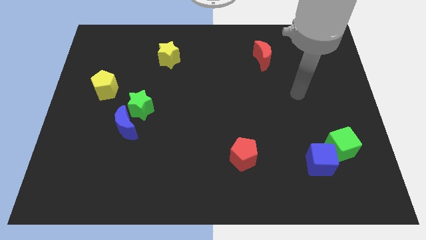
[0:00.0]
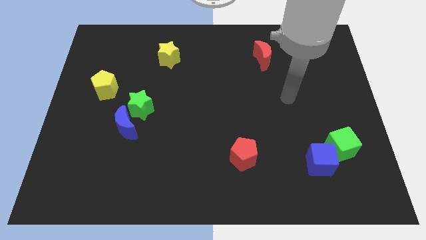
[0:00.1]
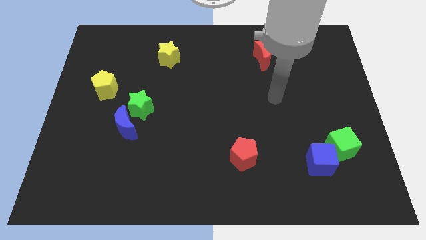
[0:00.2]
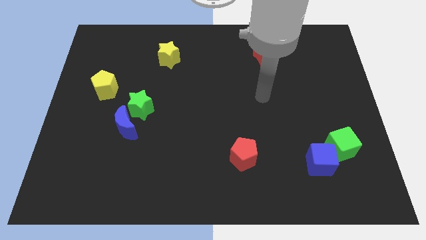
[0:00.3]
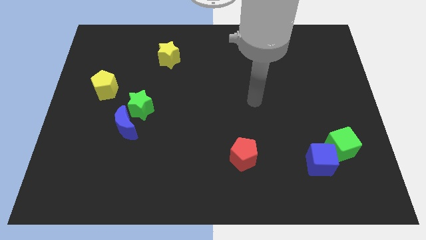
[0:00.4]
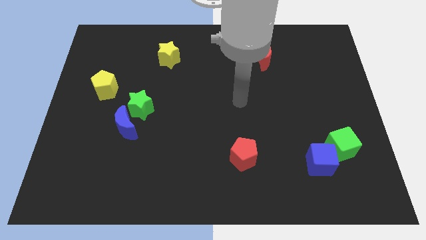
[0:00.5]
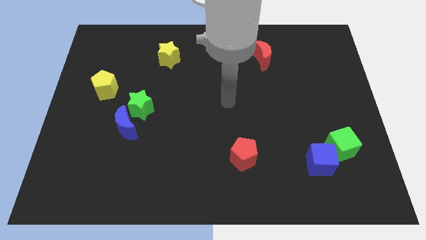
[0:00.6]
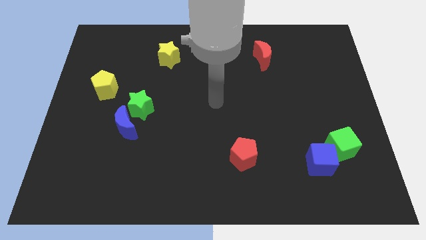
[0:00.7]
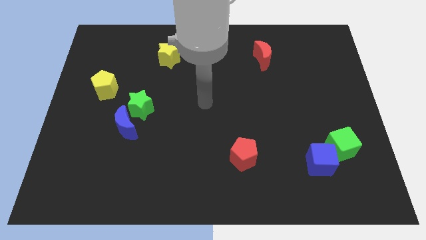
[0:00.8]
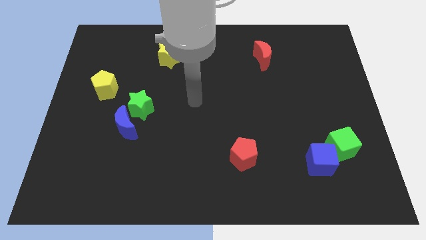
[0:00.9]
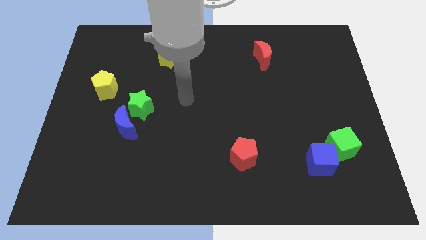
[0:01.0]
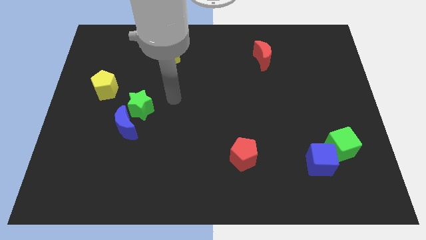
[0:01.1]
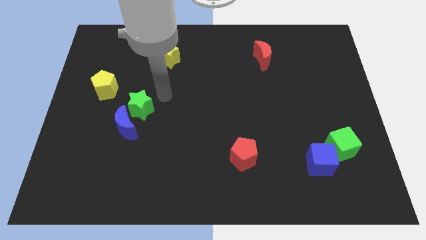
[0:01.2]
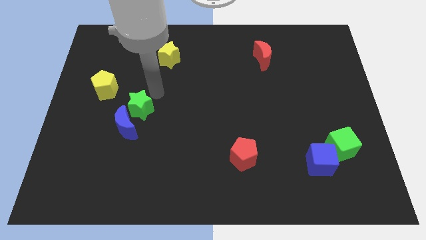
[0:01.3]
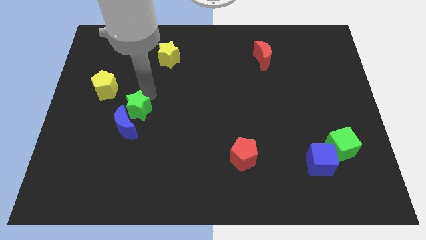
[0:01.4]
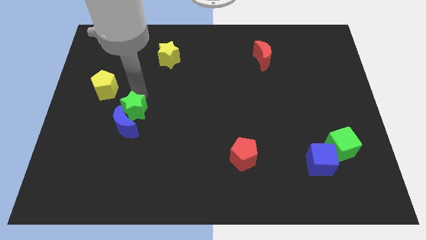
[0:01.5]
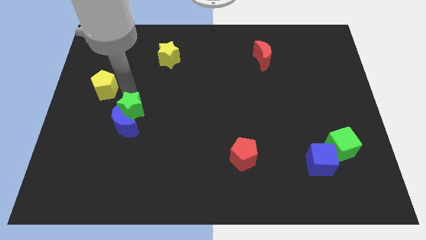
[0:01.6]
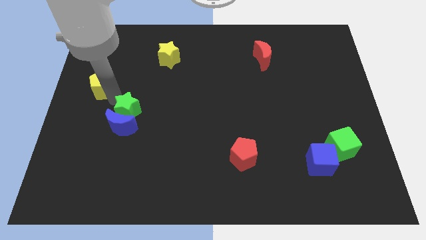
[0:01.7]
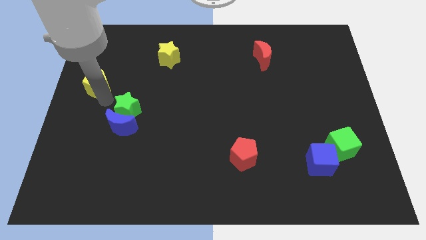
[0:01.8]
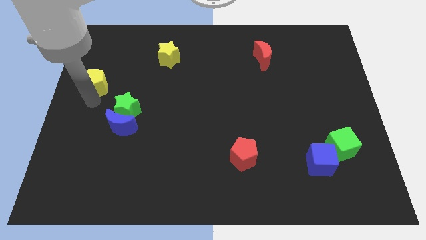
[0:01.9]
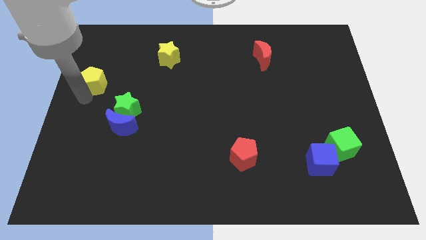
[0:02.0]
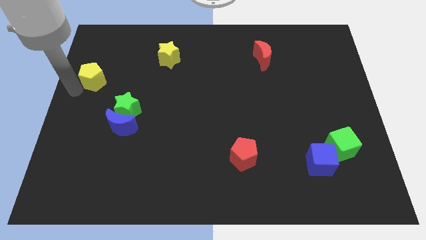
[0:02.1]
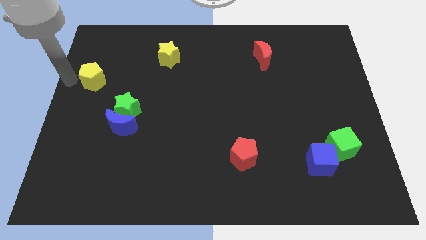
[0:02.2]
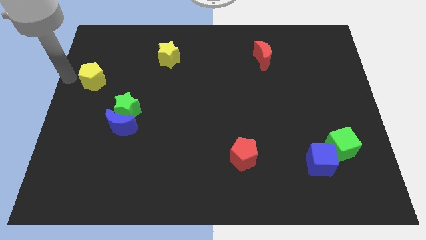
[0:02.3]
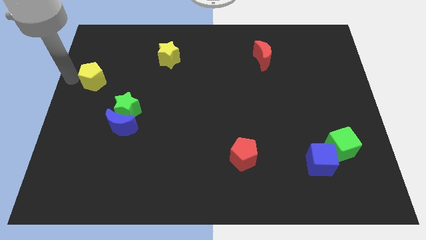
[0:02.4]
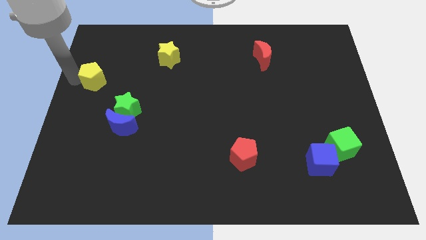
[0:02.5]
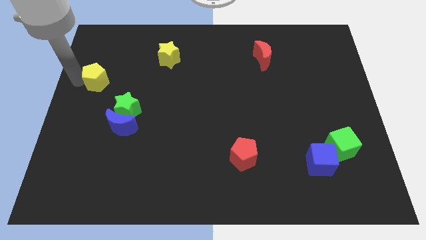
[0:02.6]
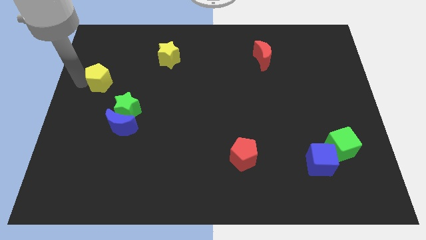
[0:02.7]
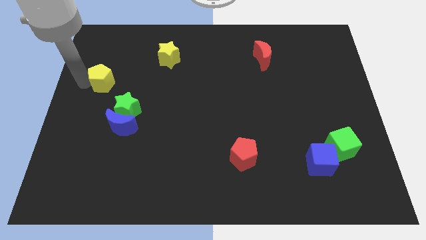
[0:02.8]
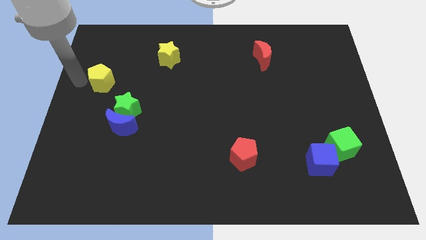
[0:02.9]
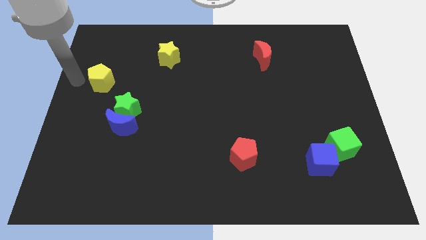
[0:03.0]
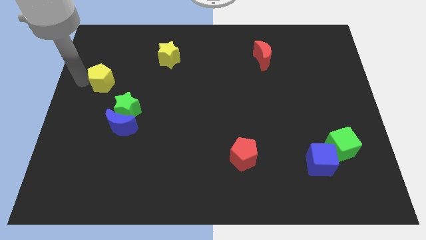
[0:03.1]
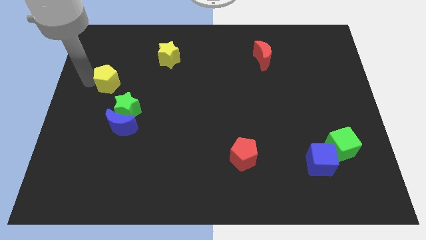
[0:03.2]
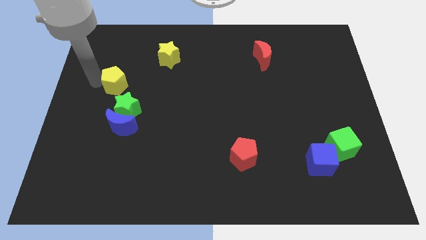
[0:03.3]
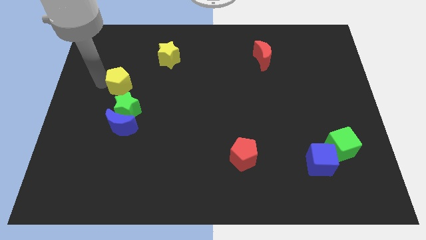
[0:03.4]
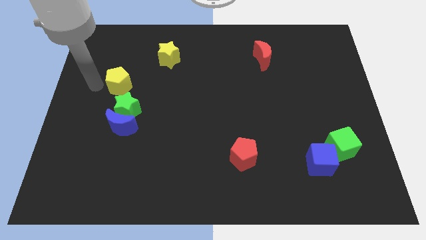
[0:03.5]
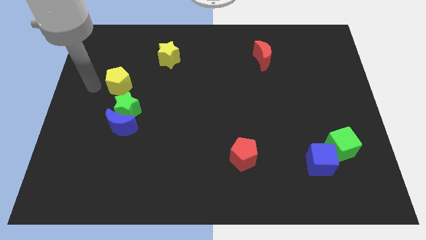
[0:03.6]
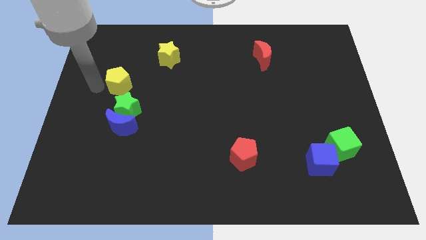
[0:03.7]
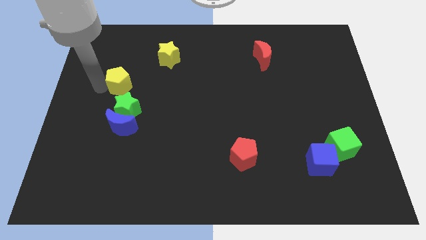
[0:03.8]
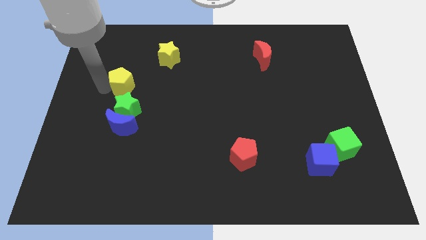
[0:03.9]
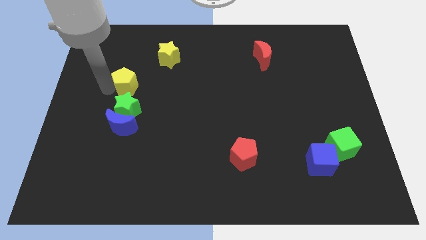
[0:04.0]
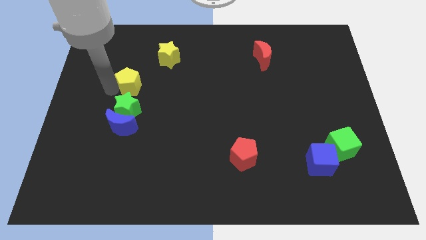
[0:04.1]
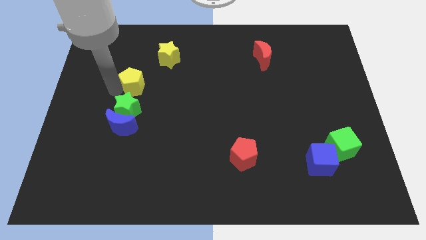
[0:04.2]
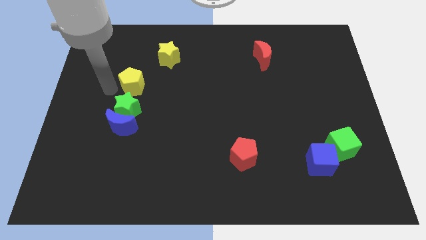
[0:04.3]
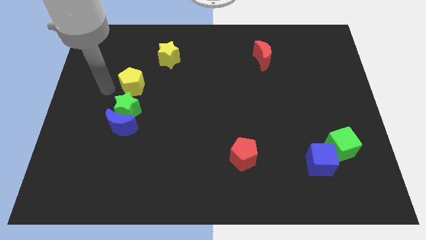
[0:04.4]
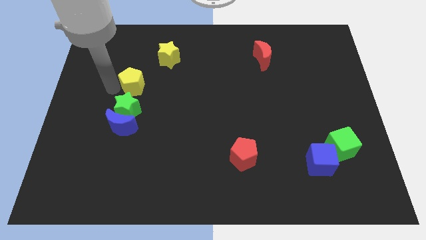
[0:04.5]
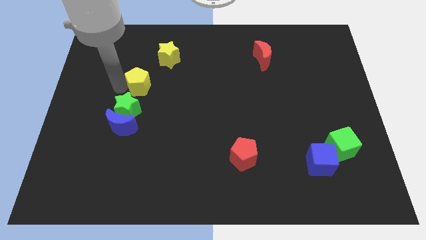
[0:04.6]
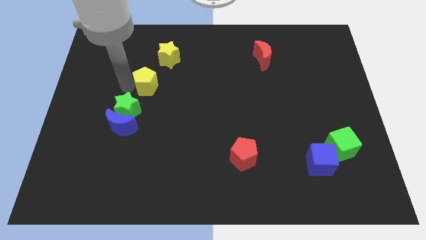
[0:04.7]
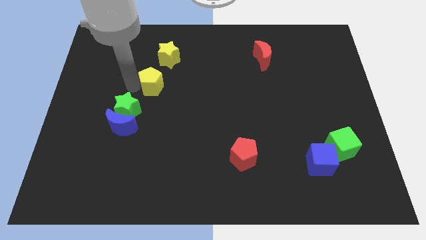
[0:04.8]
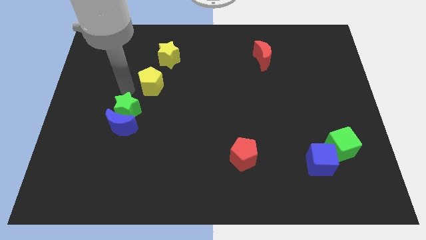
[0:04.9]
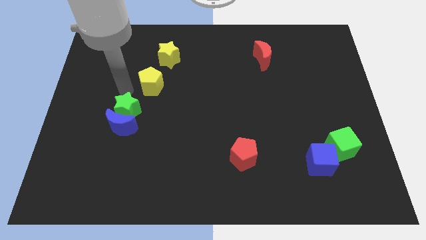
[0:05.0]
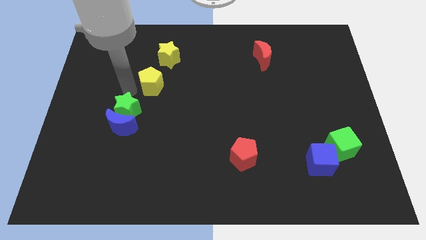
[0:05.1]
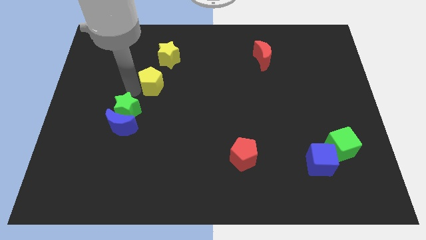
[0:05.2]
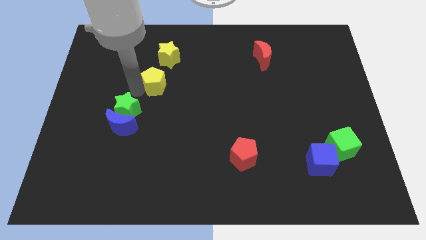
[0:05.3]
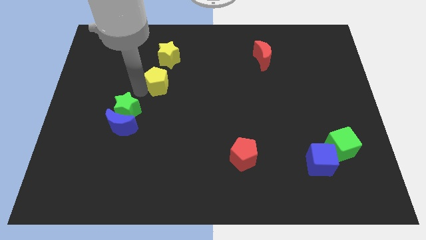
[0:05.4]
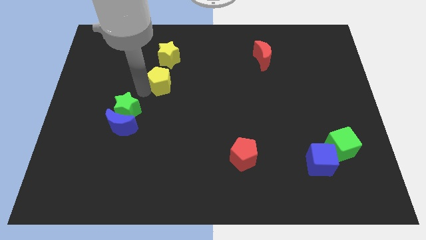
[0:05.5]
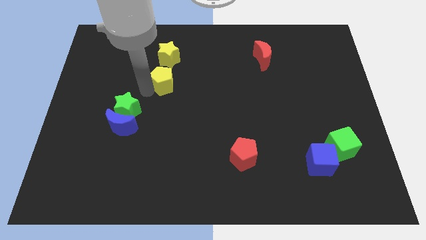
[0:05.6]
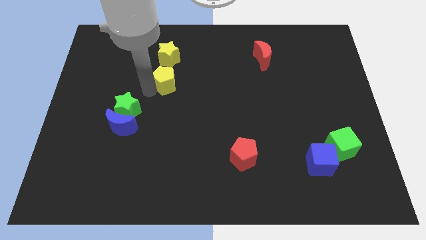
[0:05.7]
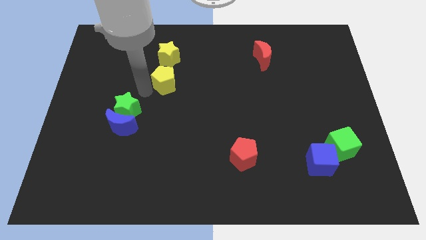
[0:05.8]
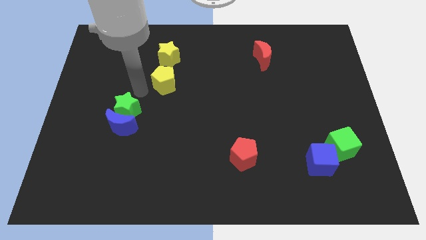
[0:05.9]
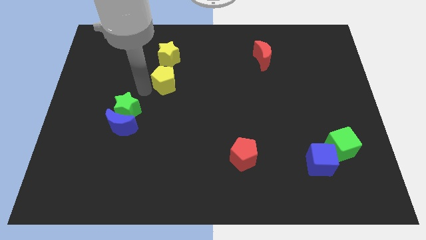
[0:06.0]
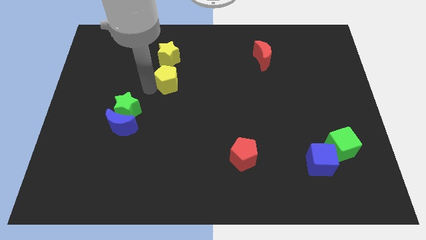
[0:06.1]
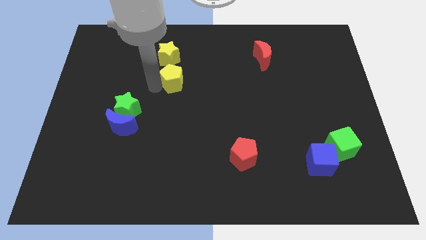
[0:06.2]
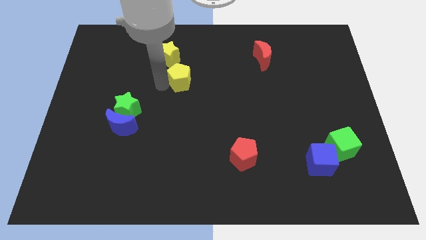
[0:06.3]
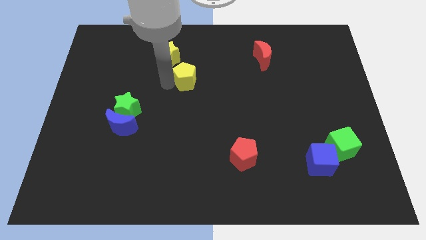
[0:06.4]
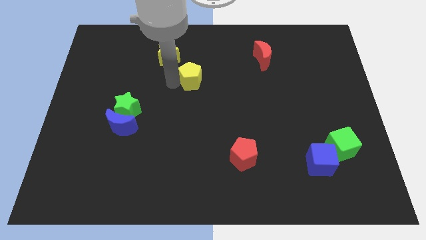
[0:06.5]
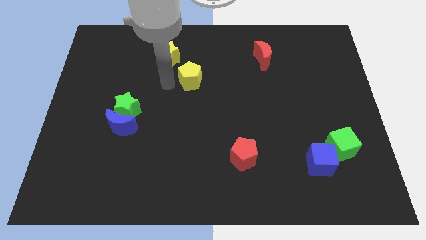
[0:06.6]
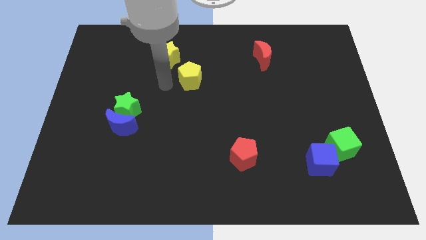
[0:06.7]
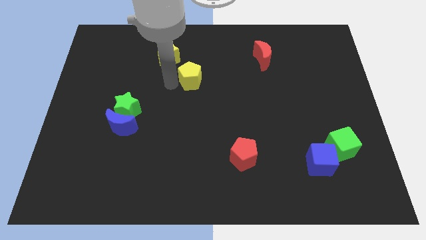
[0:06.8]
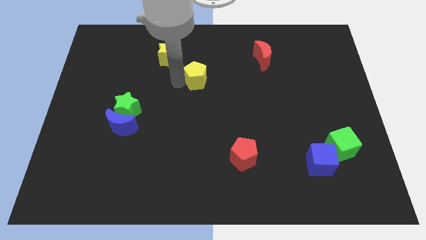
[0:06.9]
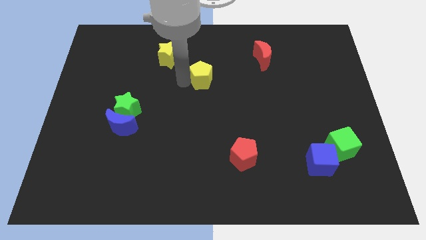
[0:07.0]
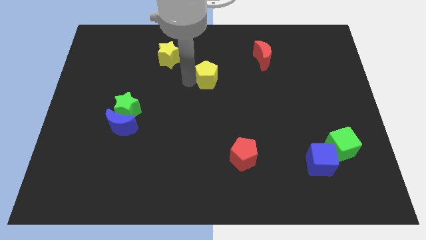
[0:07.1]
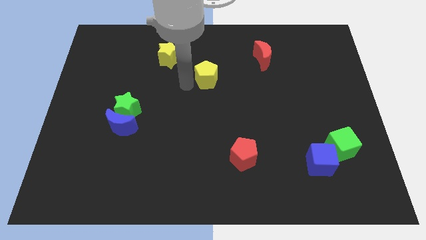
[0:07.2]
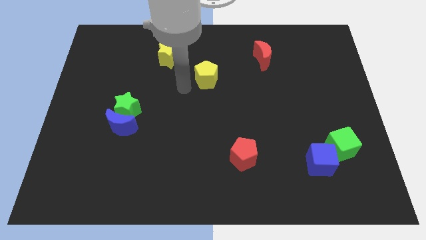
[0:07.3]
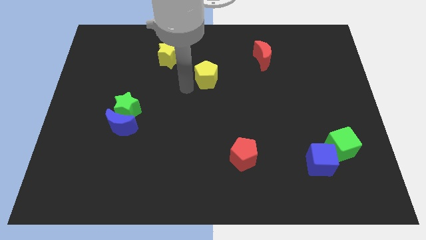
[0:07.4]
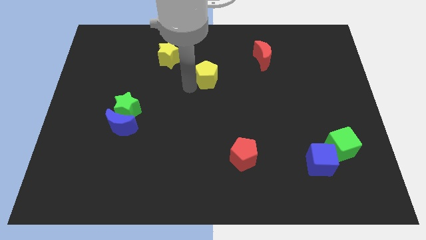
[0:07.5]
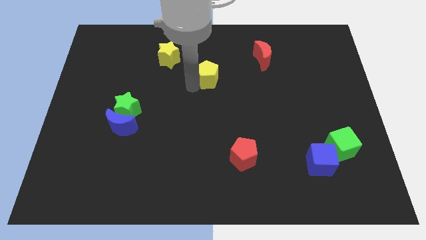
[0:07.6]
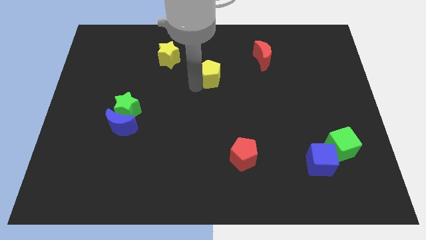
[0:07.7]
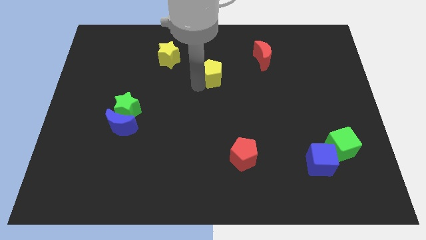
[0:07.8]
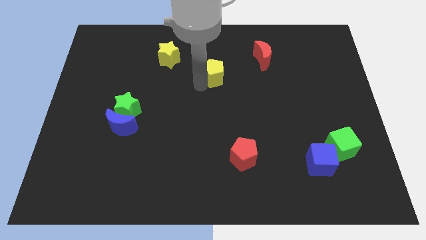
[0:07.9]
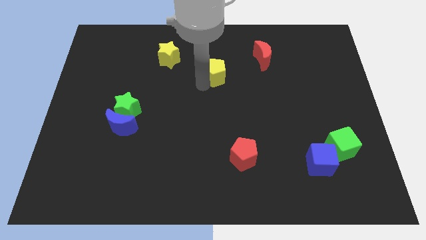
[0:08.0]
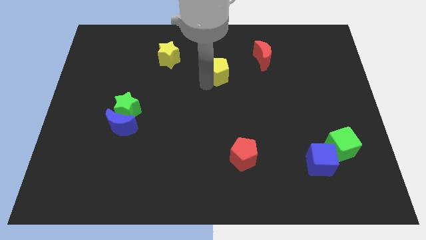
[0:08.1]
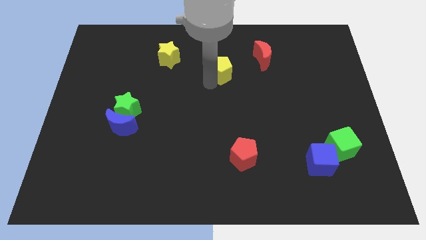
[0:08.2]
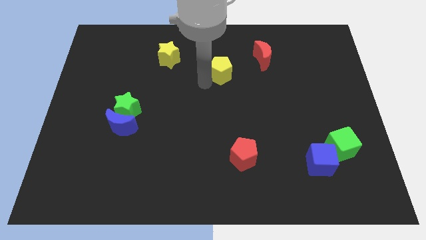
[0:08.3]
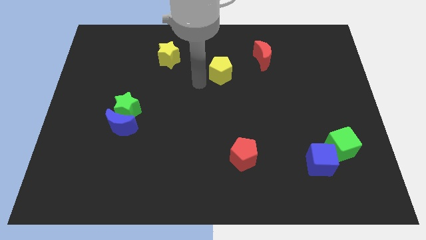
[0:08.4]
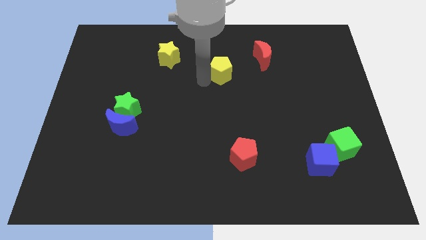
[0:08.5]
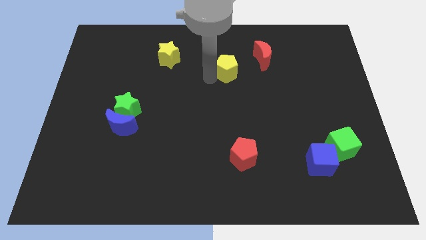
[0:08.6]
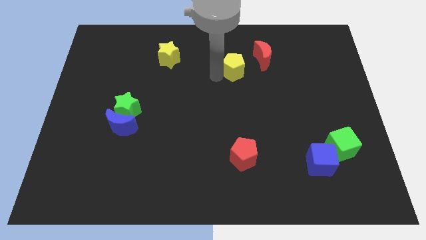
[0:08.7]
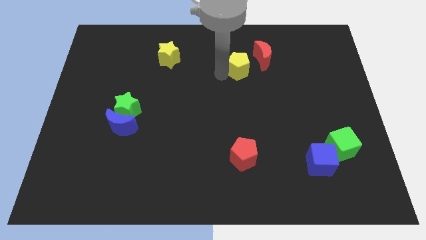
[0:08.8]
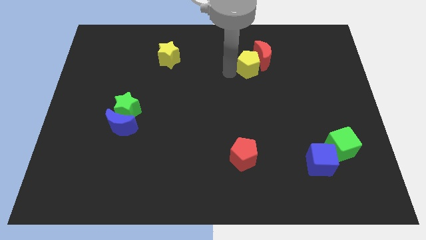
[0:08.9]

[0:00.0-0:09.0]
slide the yellow pentagon next to the red moon
